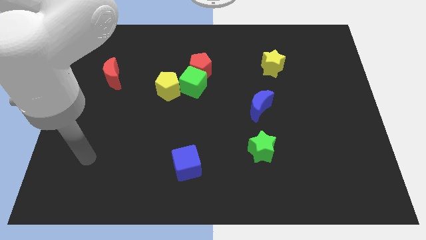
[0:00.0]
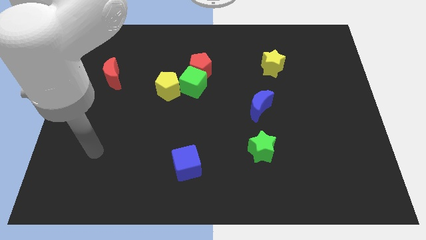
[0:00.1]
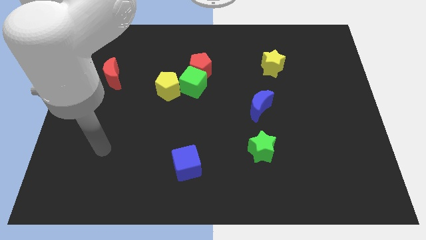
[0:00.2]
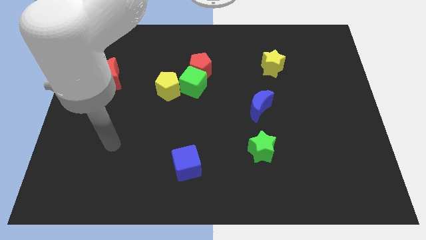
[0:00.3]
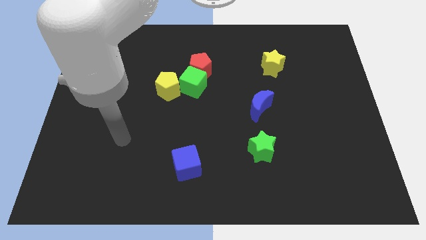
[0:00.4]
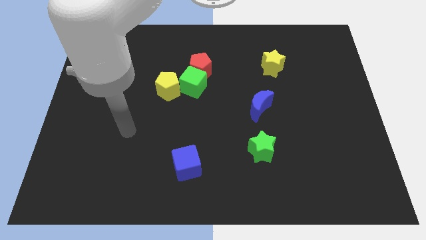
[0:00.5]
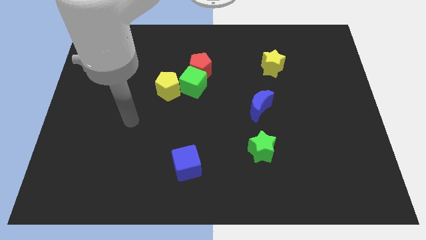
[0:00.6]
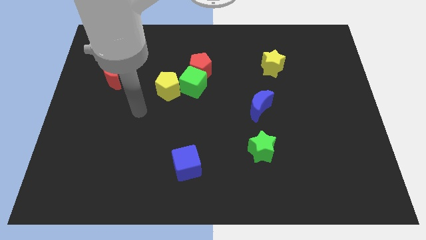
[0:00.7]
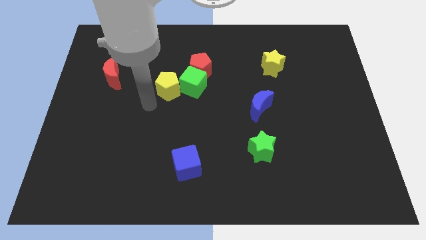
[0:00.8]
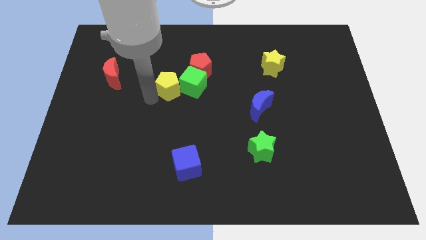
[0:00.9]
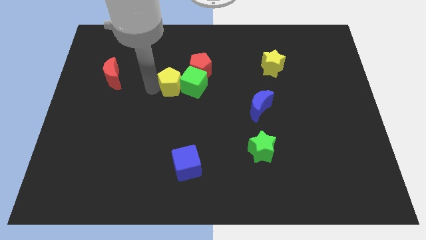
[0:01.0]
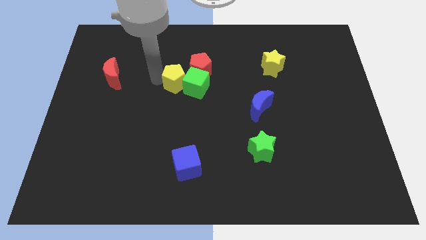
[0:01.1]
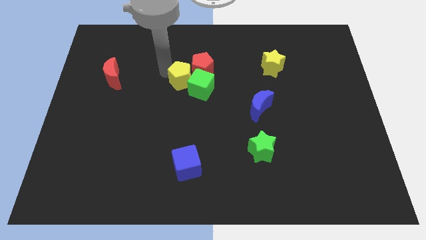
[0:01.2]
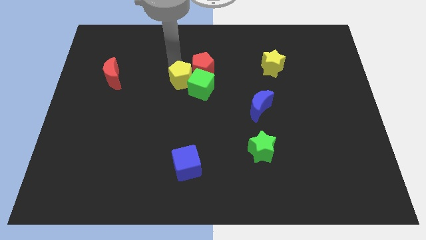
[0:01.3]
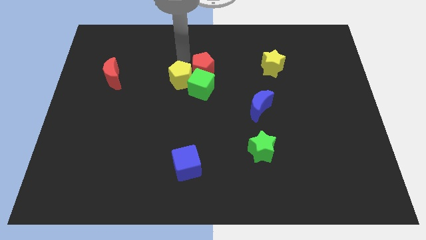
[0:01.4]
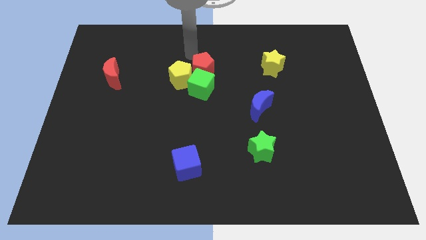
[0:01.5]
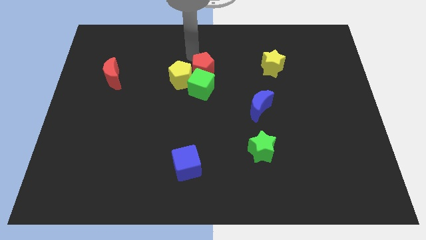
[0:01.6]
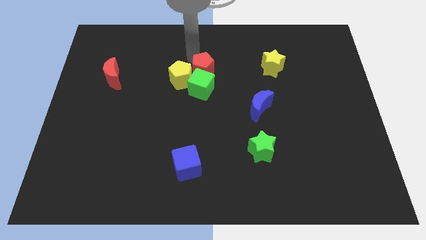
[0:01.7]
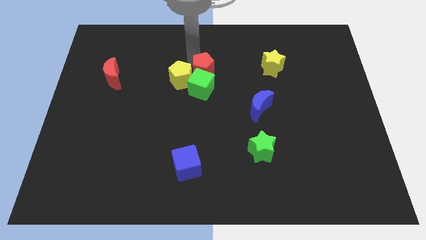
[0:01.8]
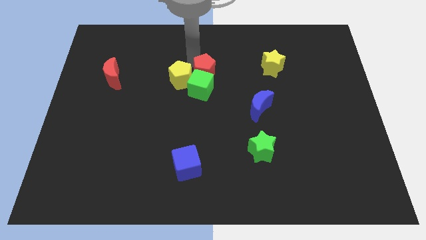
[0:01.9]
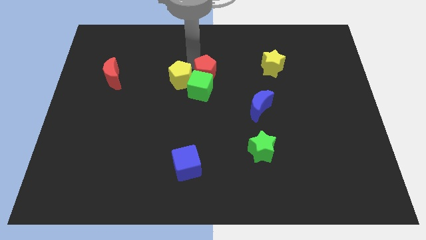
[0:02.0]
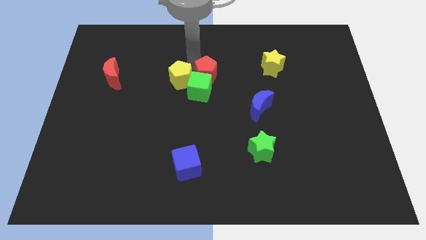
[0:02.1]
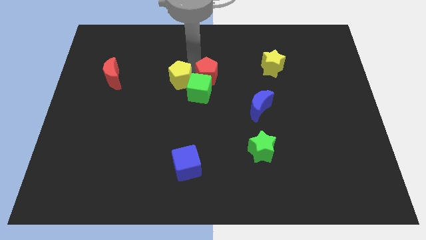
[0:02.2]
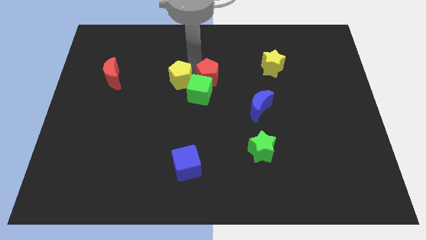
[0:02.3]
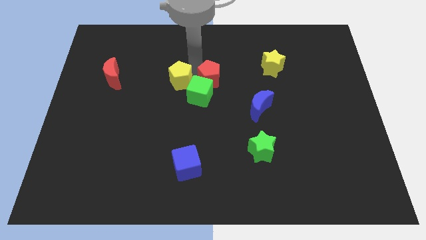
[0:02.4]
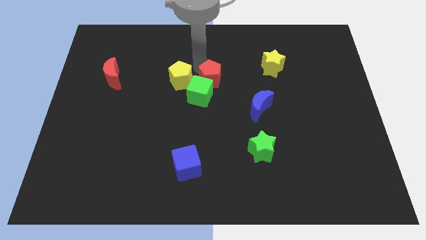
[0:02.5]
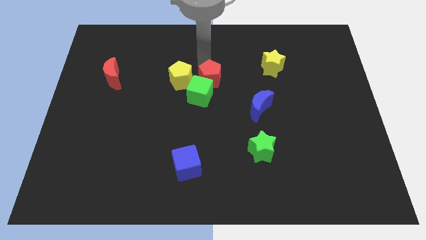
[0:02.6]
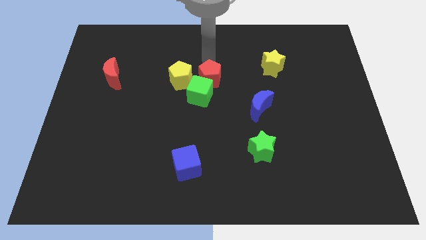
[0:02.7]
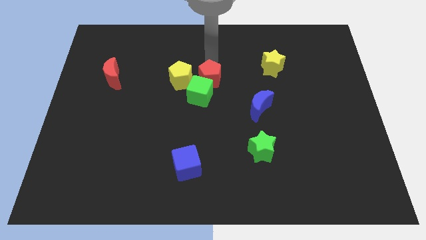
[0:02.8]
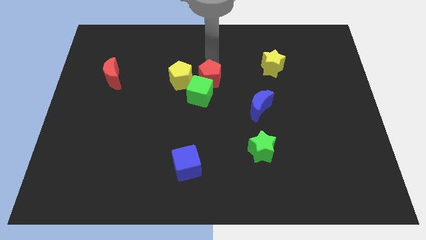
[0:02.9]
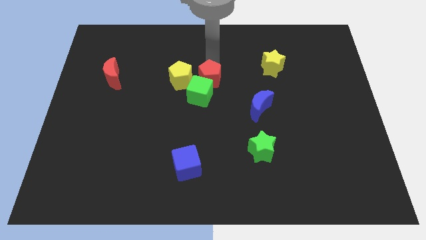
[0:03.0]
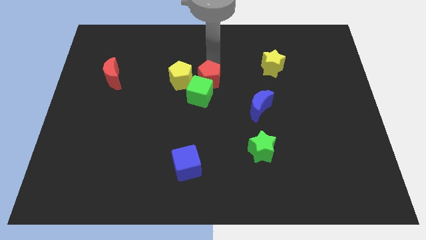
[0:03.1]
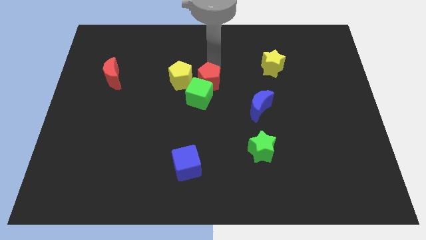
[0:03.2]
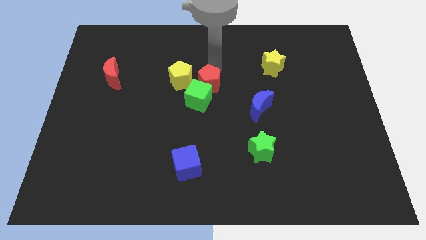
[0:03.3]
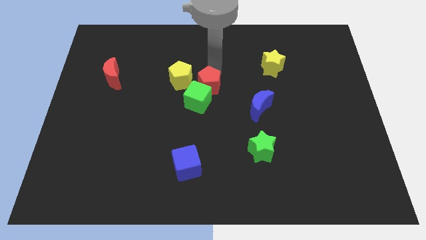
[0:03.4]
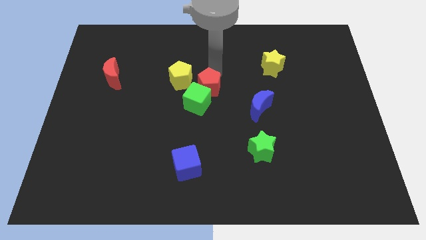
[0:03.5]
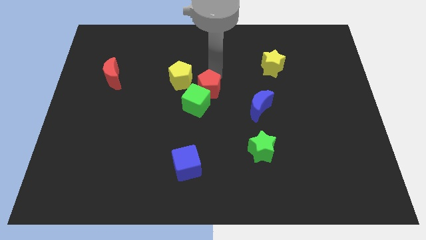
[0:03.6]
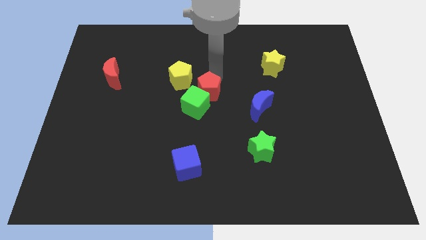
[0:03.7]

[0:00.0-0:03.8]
push the red pentagon downwards a little

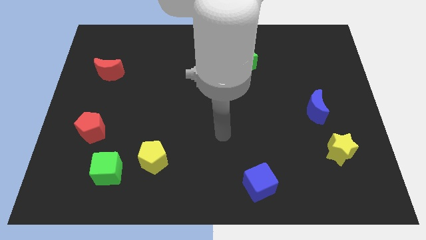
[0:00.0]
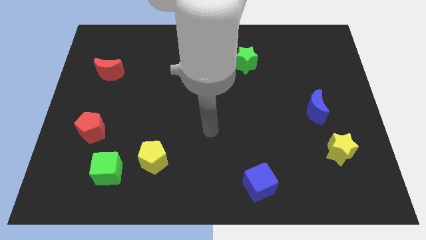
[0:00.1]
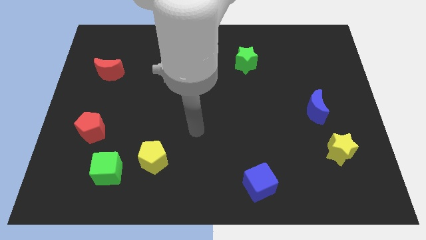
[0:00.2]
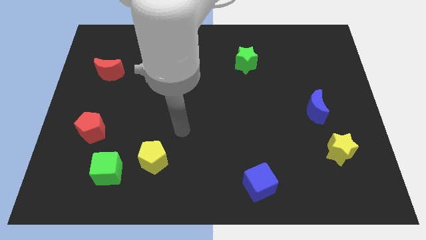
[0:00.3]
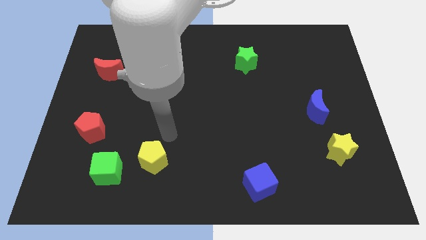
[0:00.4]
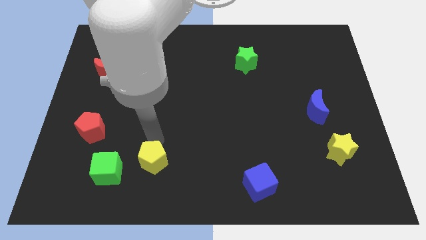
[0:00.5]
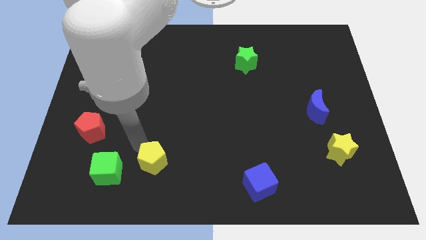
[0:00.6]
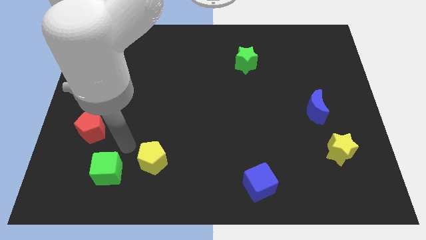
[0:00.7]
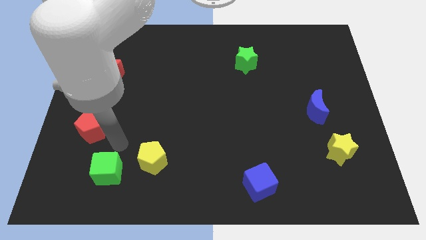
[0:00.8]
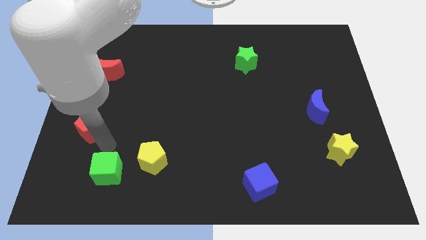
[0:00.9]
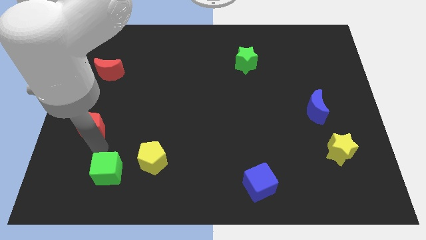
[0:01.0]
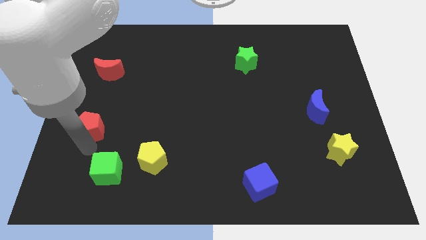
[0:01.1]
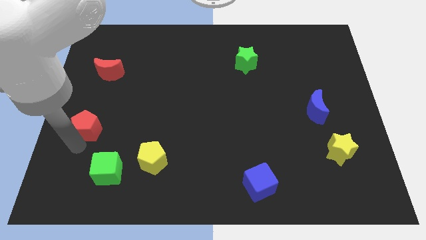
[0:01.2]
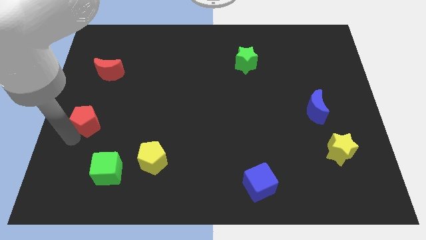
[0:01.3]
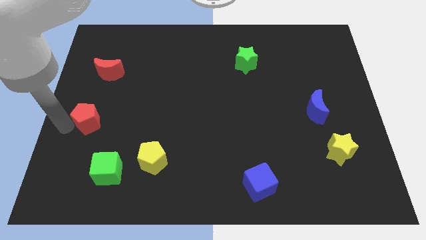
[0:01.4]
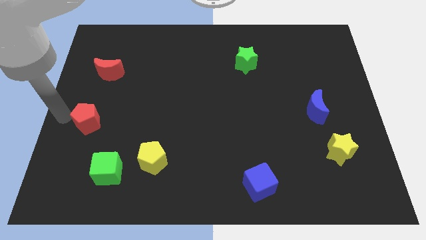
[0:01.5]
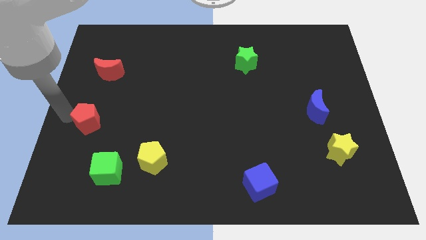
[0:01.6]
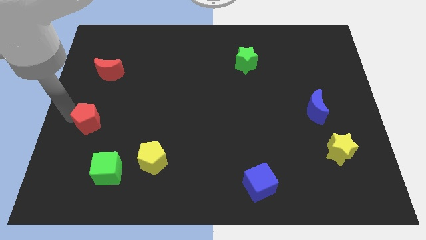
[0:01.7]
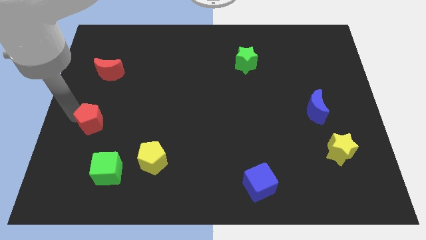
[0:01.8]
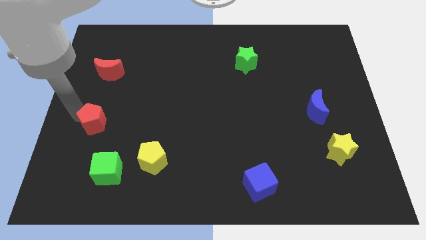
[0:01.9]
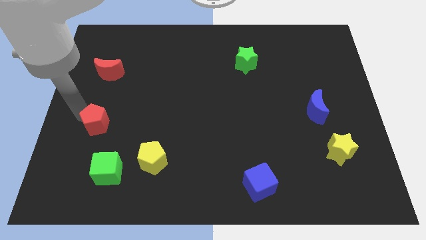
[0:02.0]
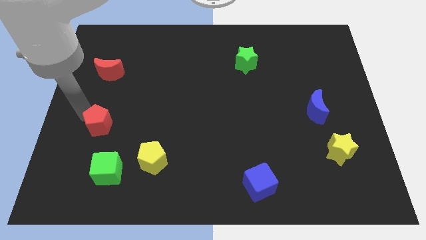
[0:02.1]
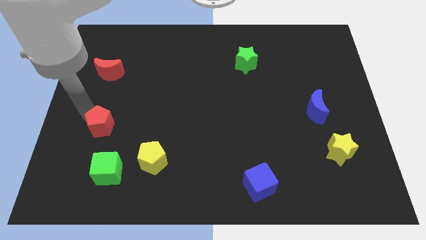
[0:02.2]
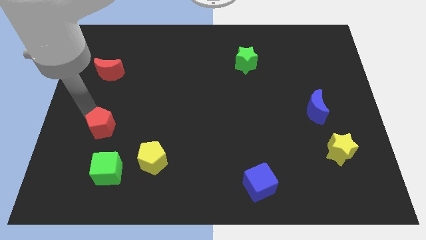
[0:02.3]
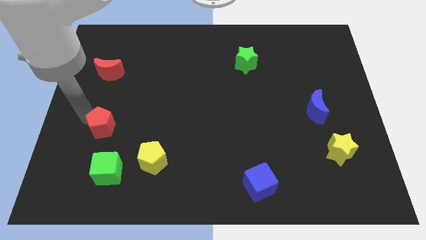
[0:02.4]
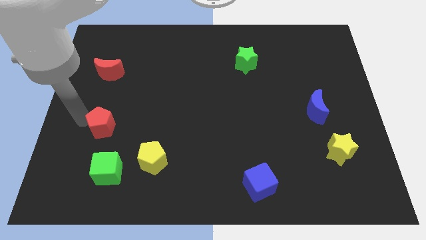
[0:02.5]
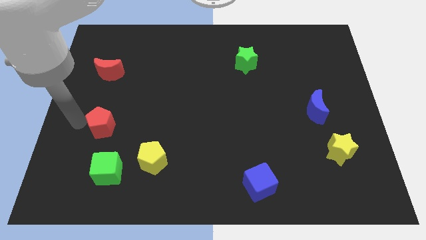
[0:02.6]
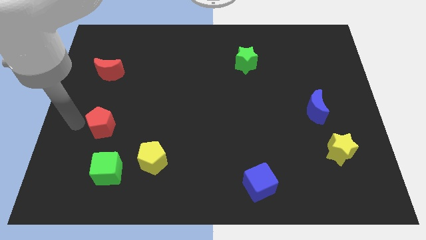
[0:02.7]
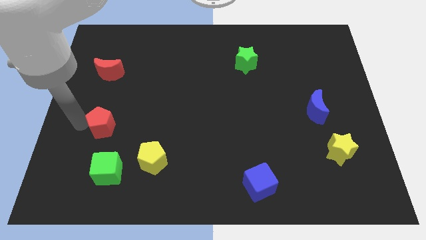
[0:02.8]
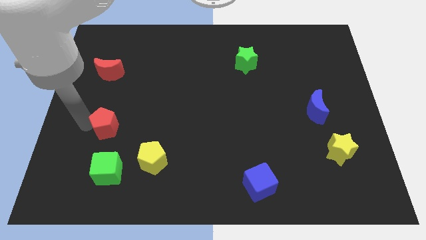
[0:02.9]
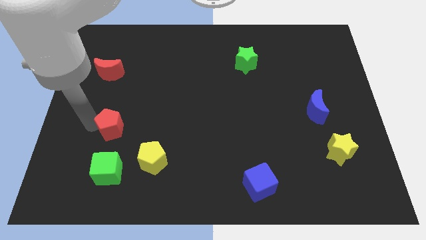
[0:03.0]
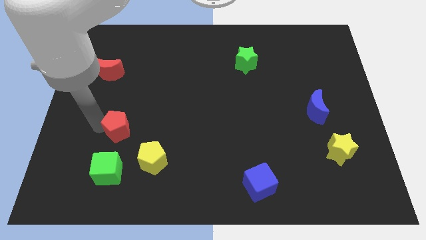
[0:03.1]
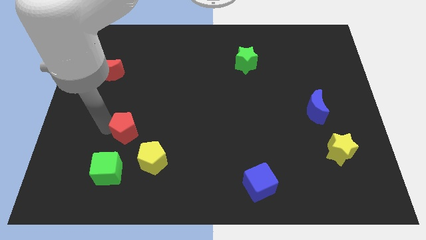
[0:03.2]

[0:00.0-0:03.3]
move the red pentagon to the right a bit

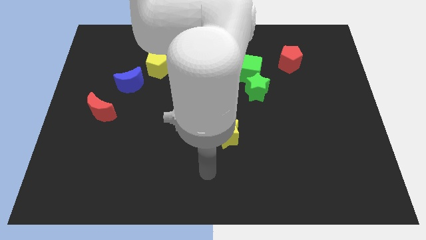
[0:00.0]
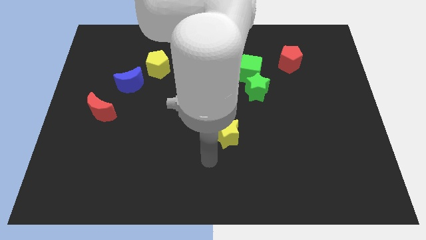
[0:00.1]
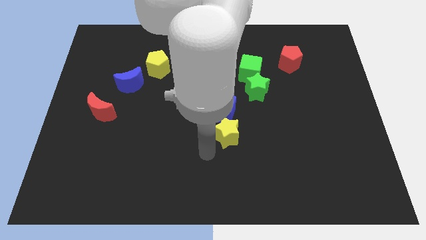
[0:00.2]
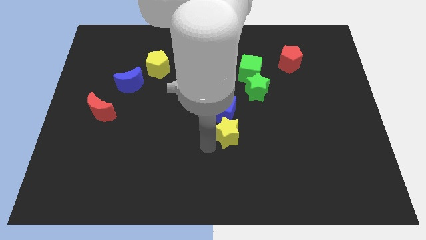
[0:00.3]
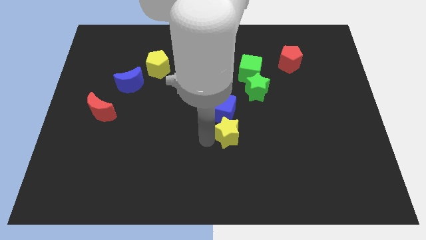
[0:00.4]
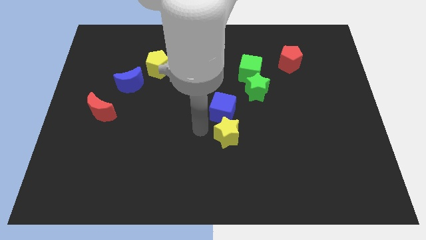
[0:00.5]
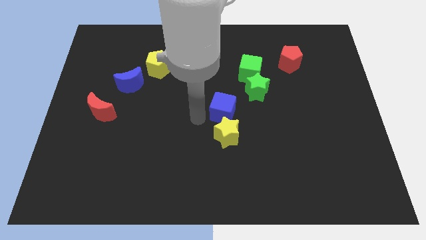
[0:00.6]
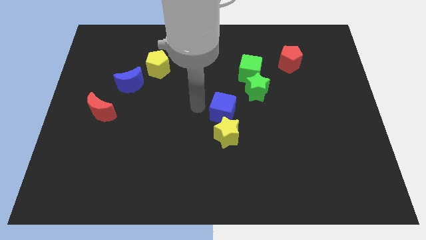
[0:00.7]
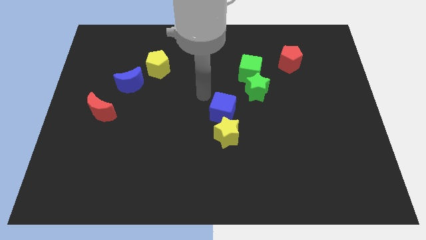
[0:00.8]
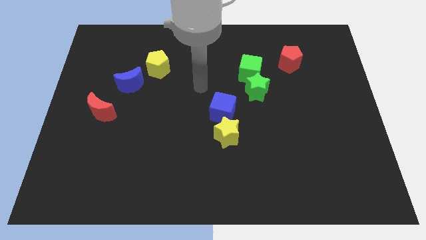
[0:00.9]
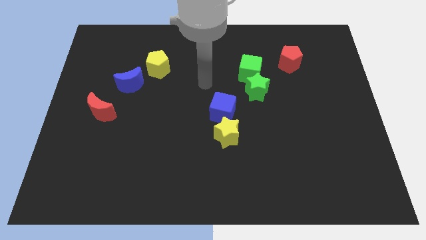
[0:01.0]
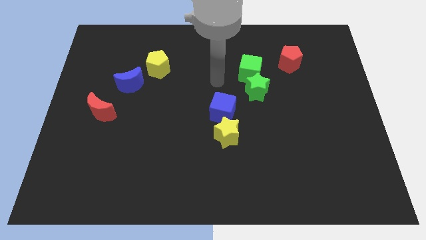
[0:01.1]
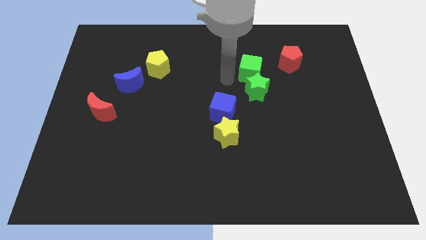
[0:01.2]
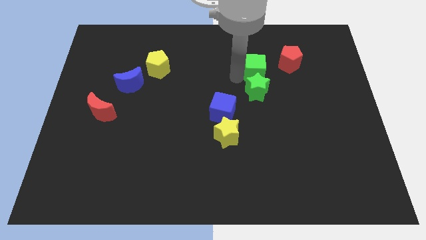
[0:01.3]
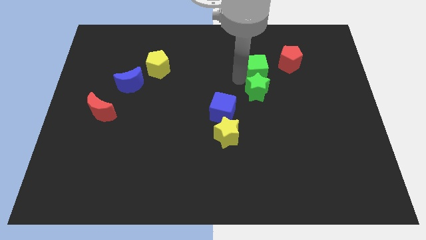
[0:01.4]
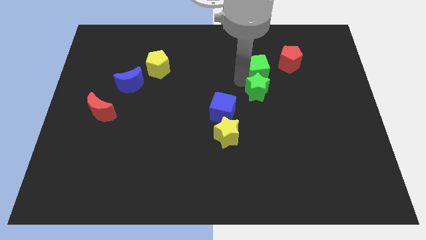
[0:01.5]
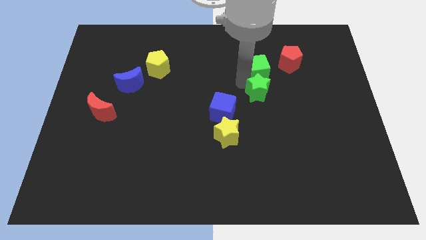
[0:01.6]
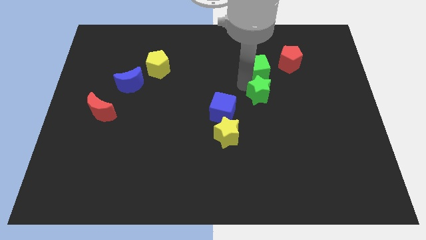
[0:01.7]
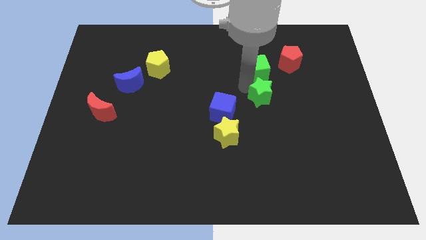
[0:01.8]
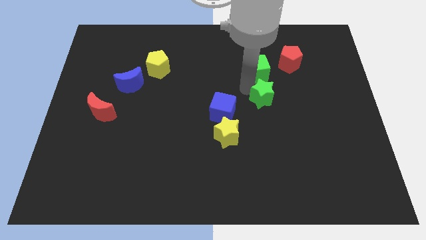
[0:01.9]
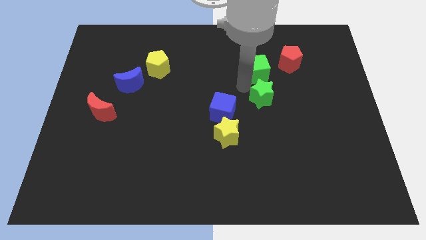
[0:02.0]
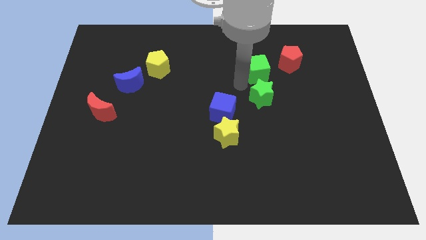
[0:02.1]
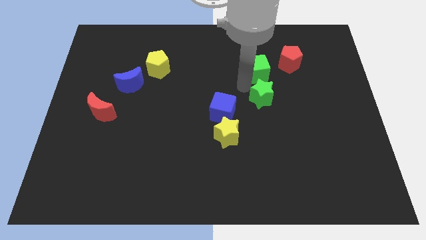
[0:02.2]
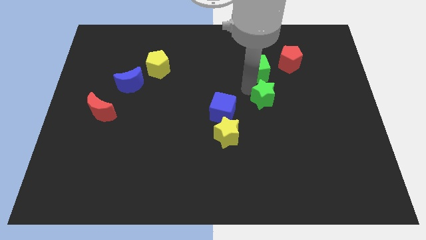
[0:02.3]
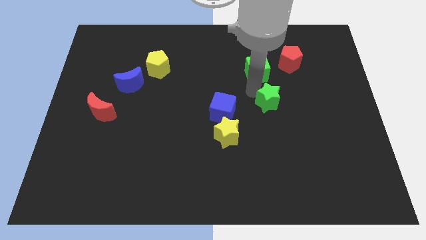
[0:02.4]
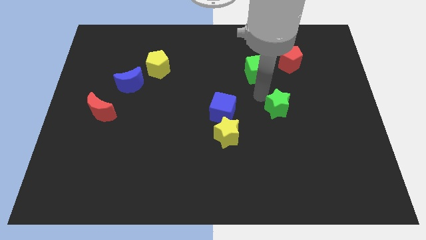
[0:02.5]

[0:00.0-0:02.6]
move the green star a bit down and then right
